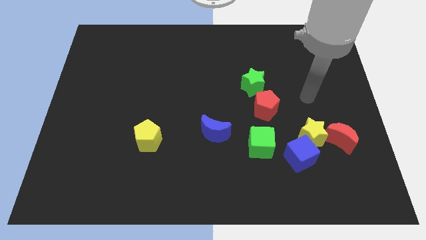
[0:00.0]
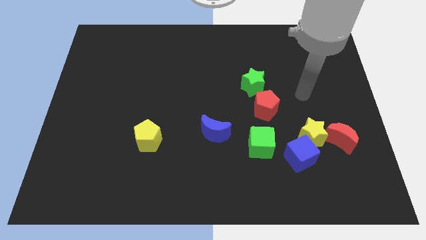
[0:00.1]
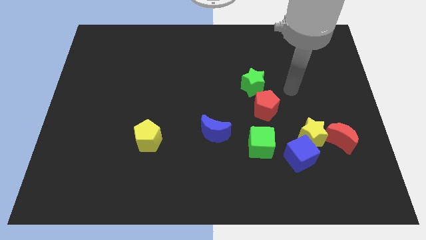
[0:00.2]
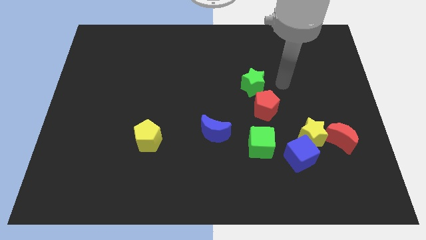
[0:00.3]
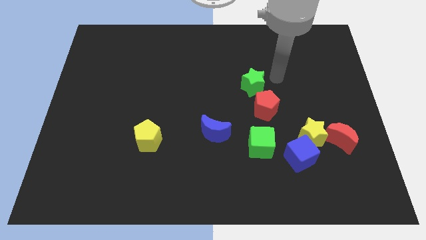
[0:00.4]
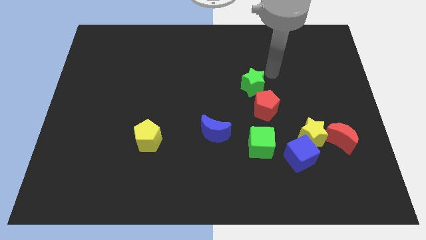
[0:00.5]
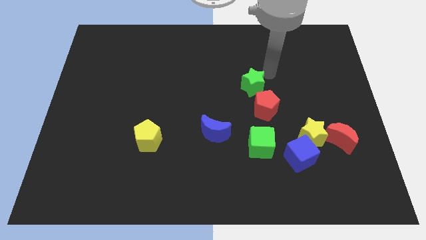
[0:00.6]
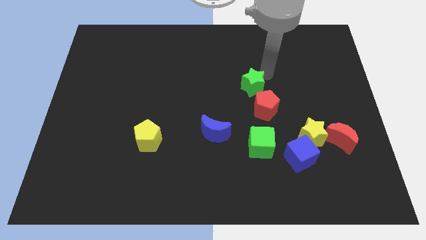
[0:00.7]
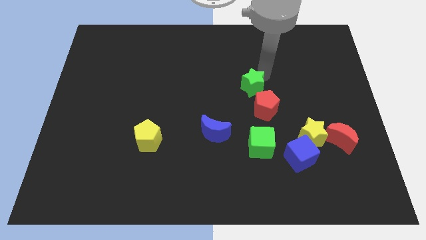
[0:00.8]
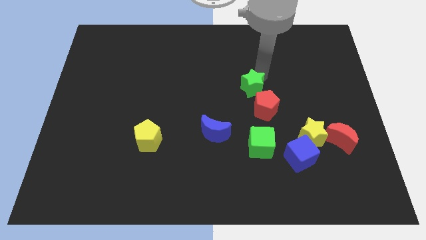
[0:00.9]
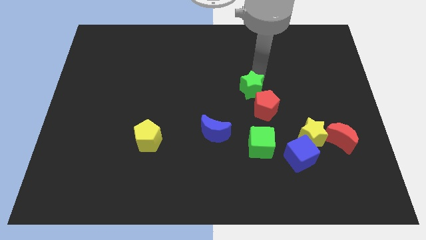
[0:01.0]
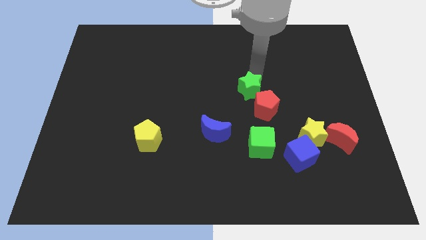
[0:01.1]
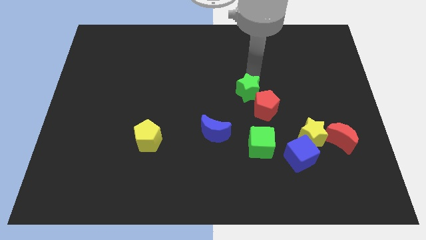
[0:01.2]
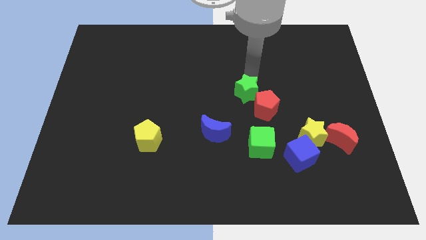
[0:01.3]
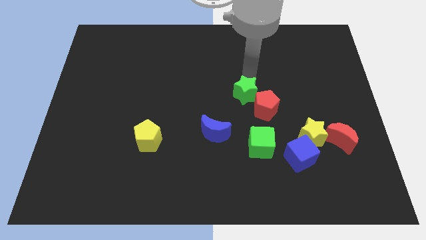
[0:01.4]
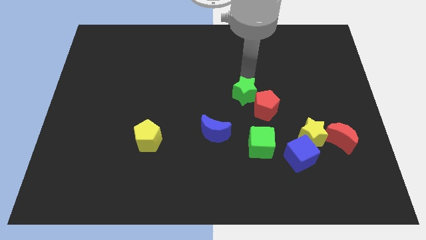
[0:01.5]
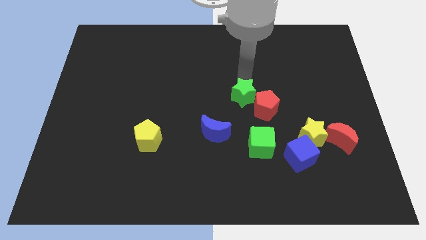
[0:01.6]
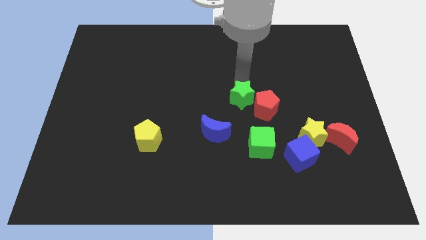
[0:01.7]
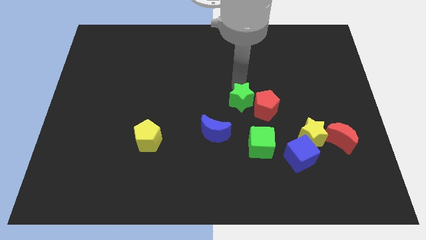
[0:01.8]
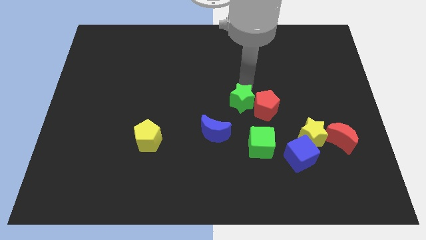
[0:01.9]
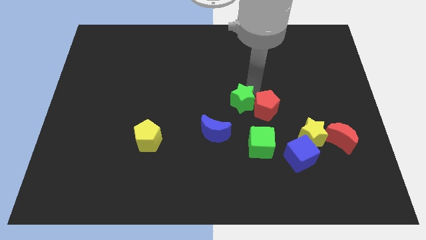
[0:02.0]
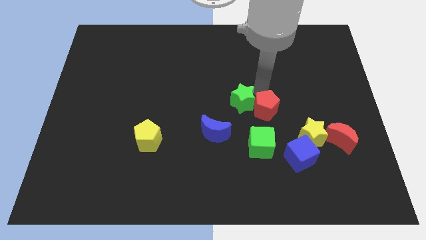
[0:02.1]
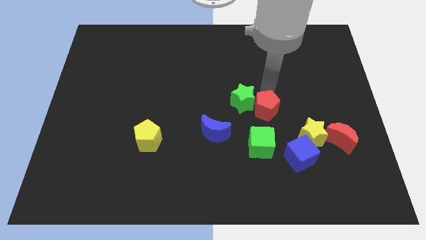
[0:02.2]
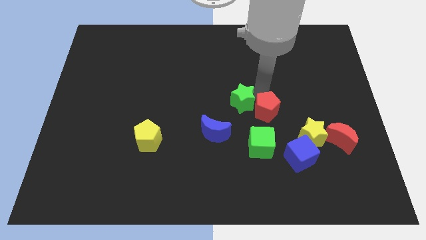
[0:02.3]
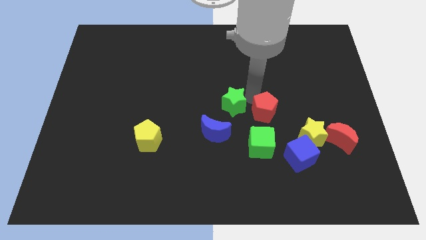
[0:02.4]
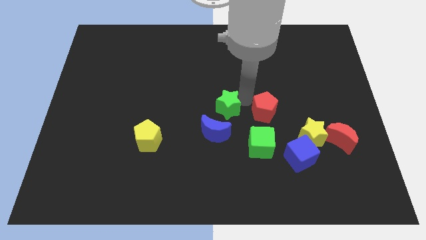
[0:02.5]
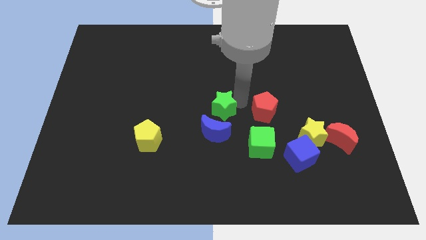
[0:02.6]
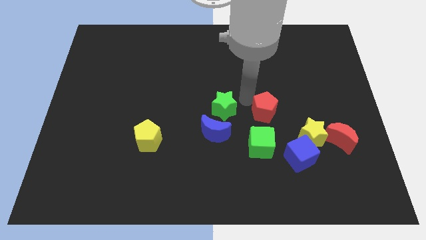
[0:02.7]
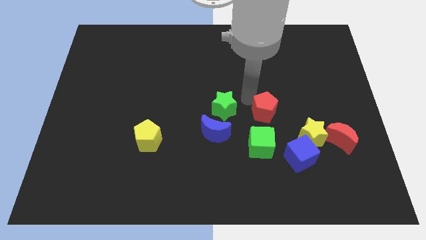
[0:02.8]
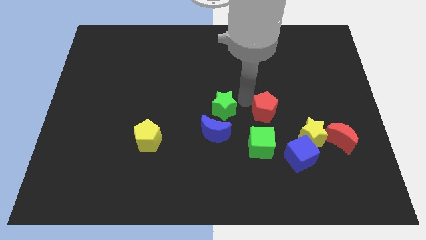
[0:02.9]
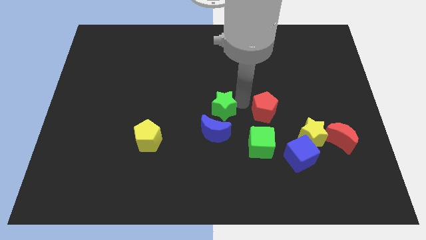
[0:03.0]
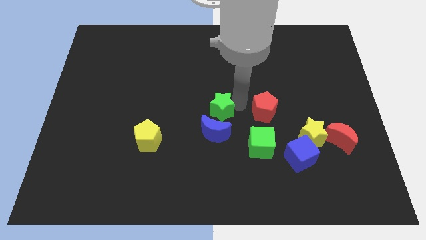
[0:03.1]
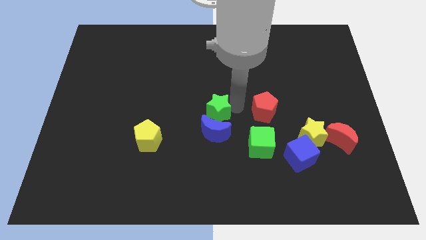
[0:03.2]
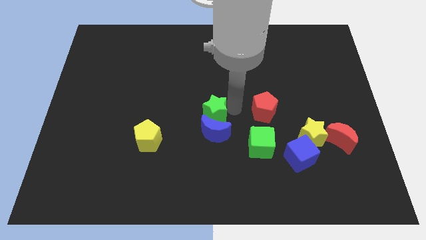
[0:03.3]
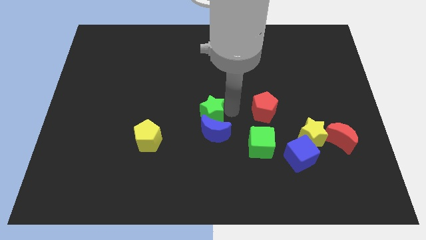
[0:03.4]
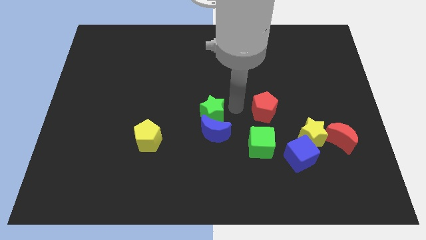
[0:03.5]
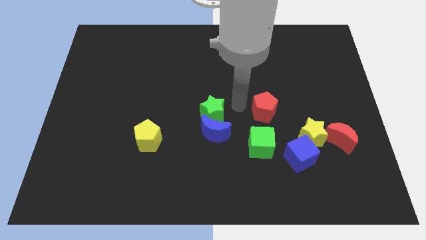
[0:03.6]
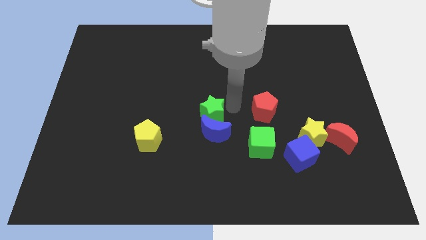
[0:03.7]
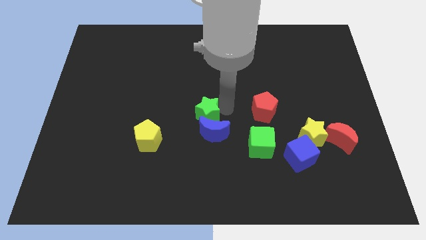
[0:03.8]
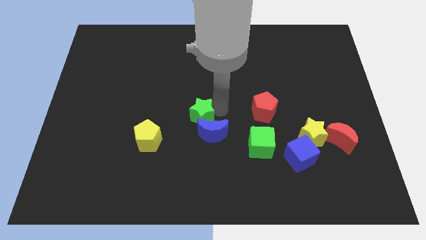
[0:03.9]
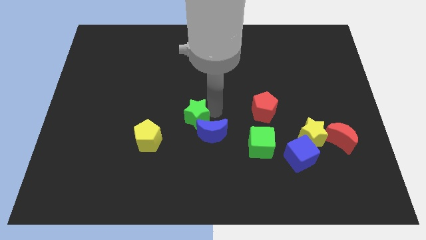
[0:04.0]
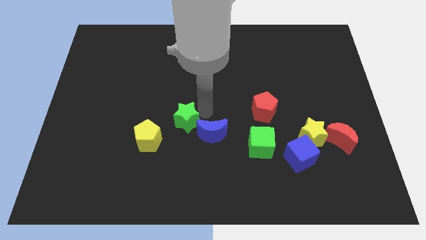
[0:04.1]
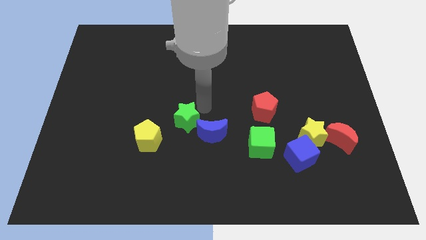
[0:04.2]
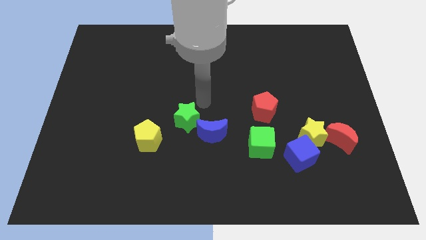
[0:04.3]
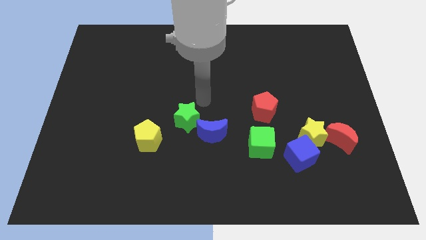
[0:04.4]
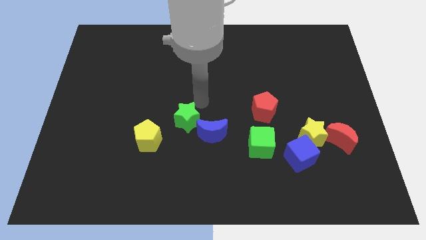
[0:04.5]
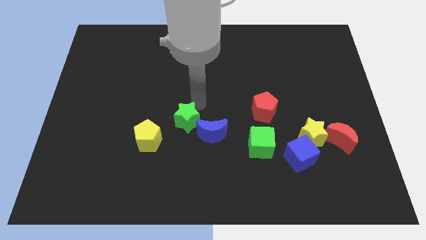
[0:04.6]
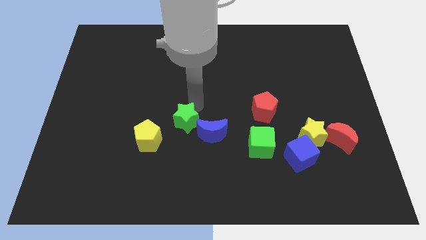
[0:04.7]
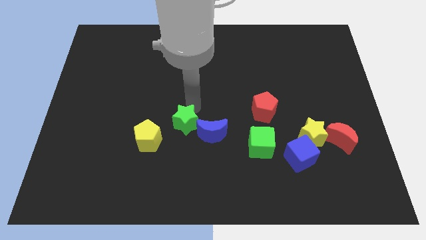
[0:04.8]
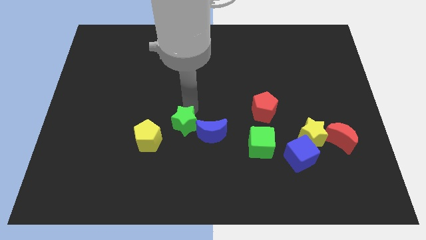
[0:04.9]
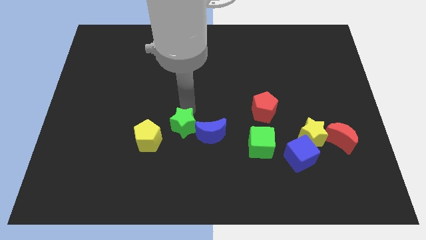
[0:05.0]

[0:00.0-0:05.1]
push the green star downwards and then to the left

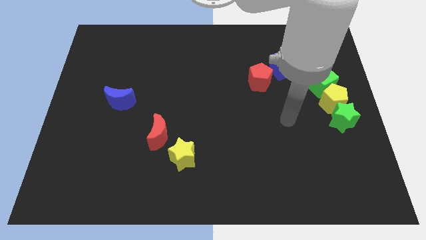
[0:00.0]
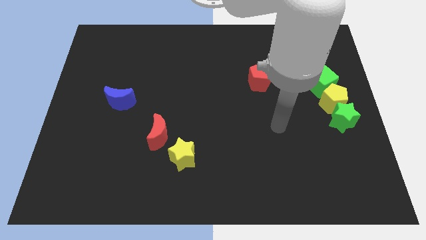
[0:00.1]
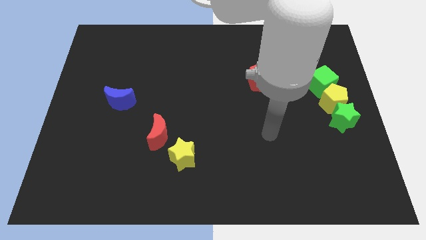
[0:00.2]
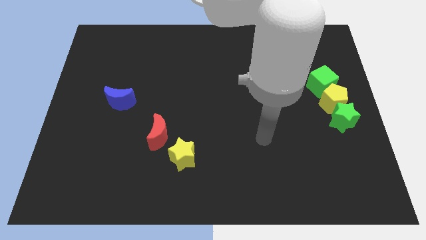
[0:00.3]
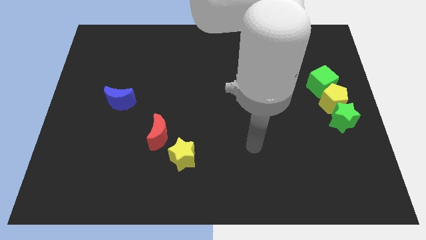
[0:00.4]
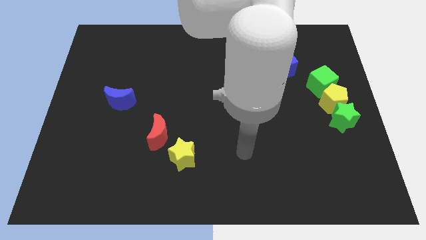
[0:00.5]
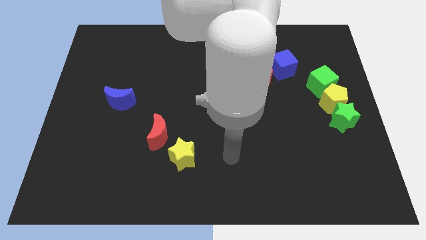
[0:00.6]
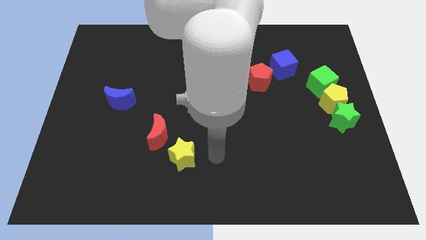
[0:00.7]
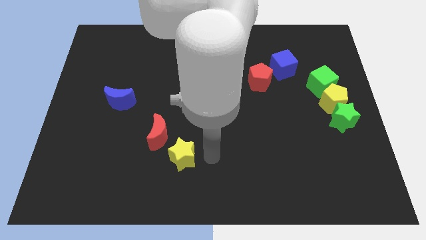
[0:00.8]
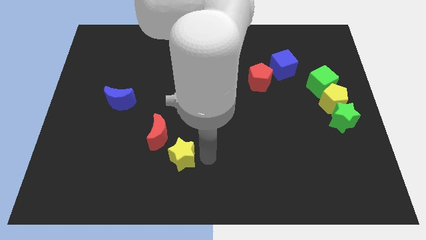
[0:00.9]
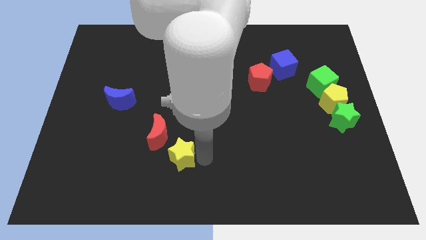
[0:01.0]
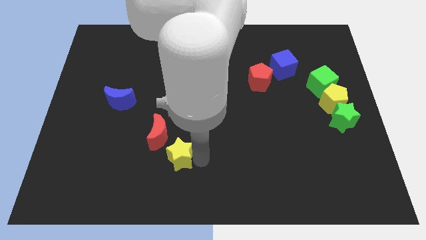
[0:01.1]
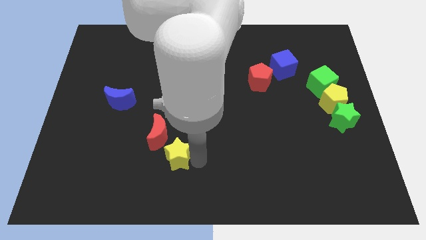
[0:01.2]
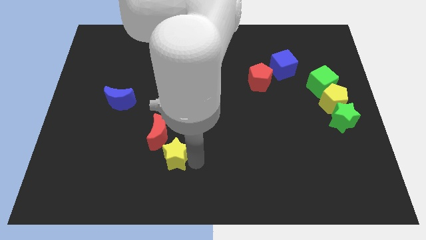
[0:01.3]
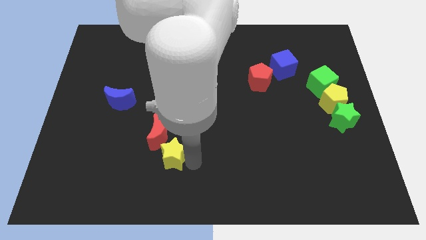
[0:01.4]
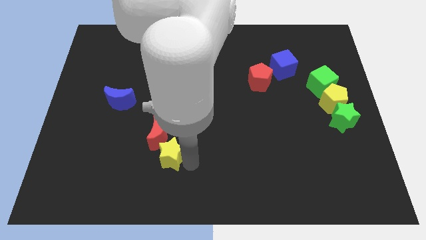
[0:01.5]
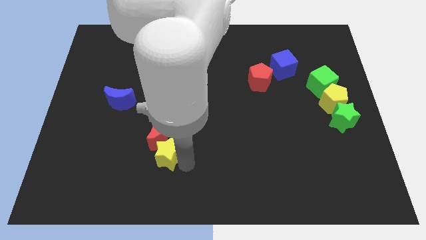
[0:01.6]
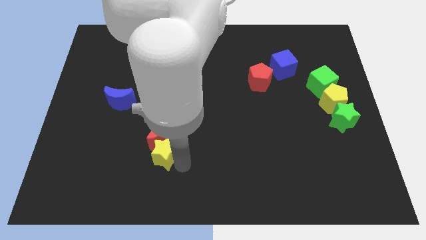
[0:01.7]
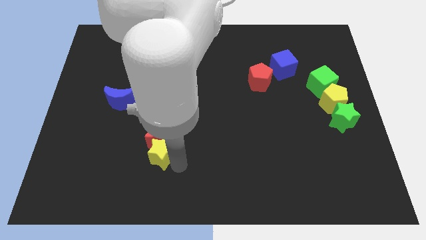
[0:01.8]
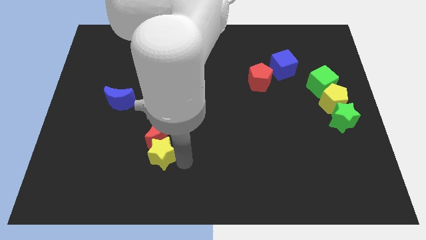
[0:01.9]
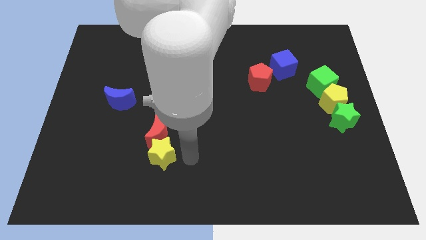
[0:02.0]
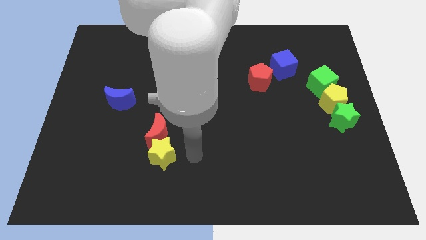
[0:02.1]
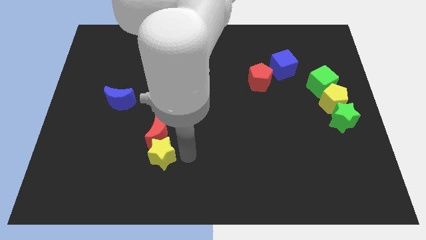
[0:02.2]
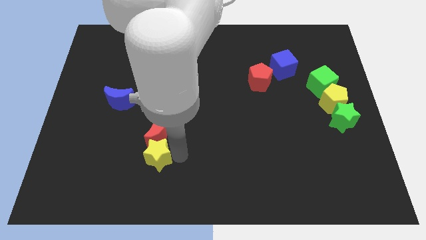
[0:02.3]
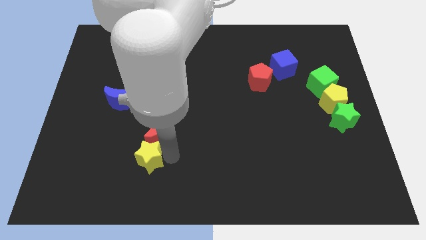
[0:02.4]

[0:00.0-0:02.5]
slide the yellow star slightly left

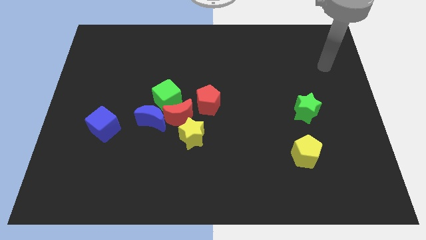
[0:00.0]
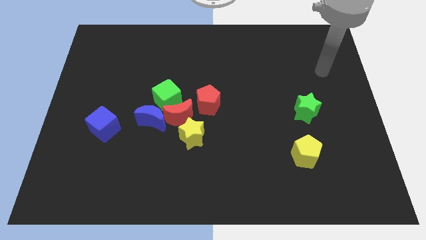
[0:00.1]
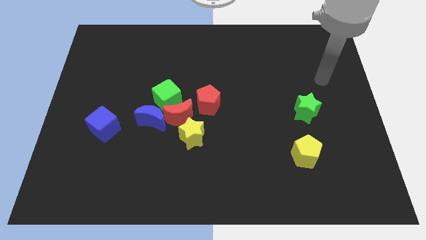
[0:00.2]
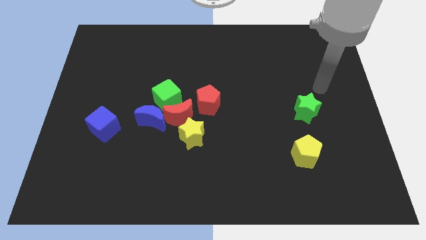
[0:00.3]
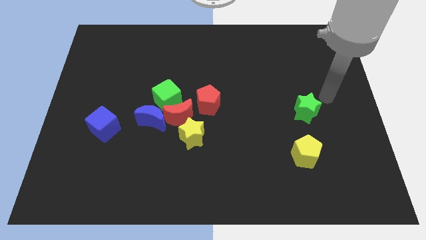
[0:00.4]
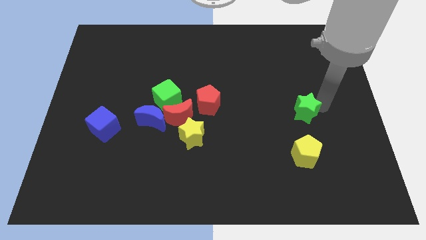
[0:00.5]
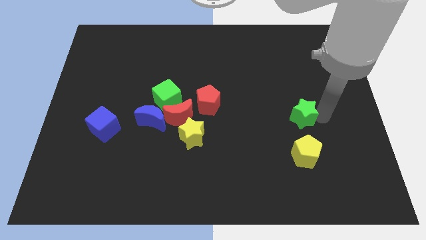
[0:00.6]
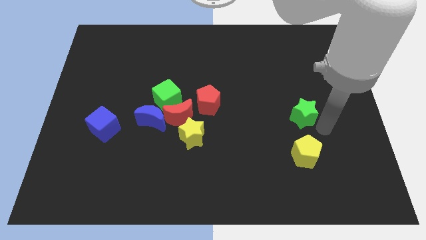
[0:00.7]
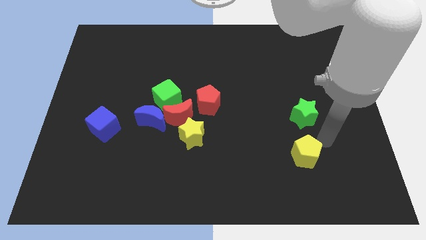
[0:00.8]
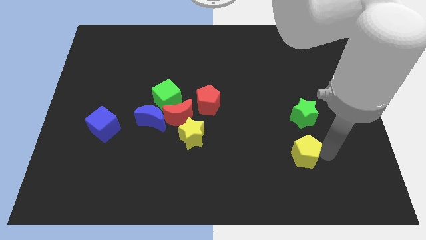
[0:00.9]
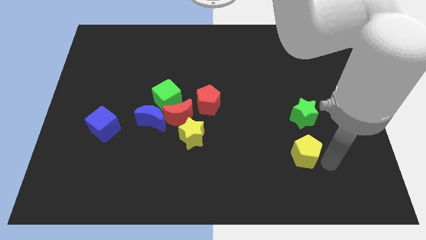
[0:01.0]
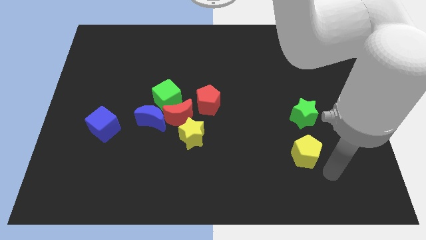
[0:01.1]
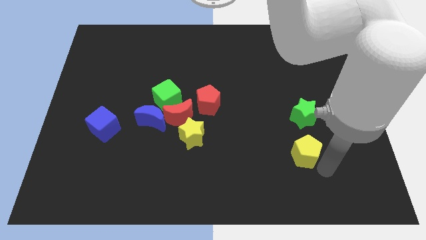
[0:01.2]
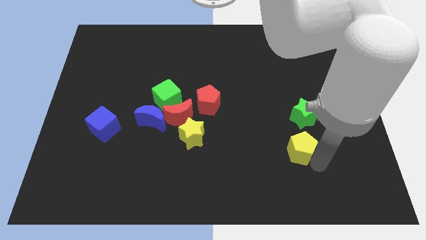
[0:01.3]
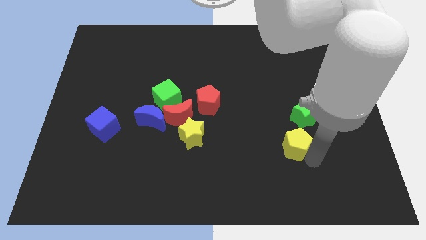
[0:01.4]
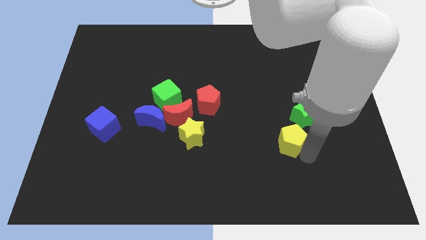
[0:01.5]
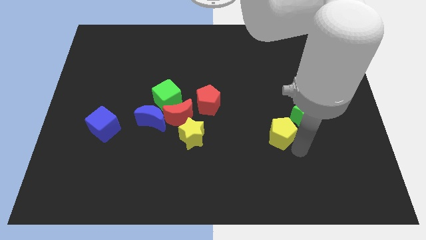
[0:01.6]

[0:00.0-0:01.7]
push the yellow pentagon a little upwards and to the left diagonally
